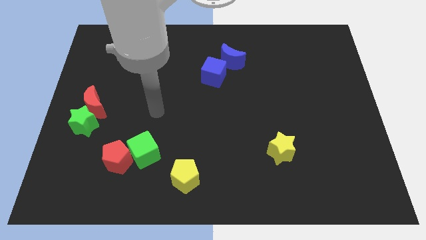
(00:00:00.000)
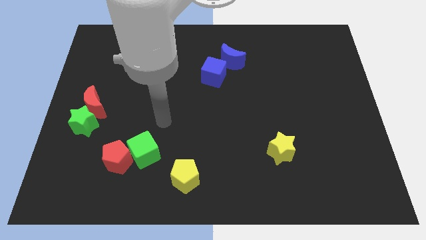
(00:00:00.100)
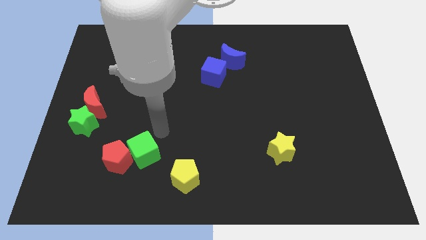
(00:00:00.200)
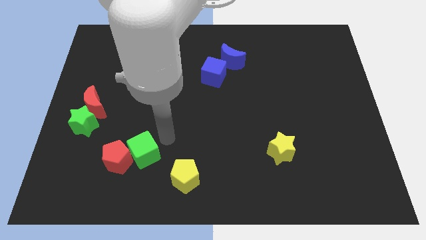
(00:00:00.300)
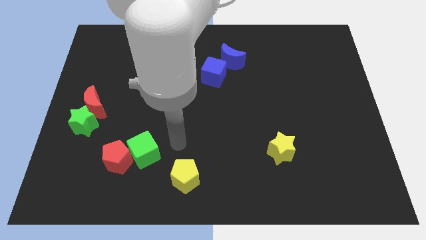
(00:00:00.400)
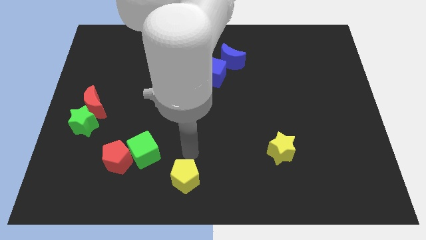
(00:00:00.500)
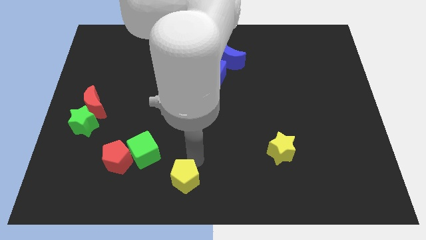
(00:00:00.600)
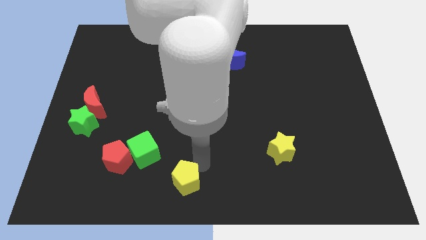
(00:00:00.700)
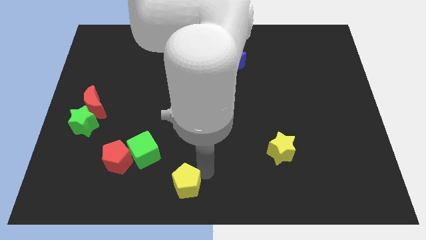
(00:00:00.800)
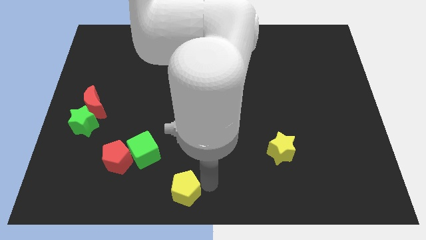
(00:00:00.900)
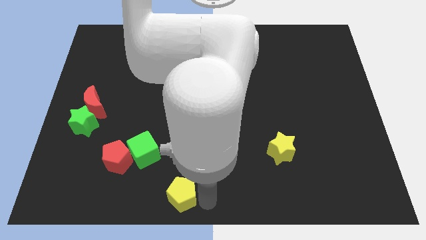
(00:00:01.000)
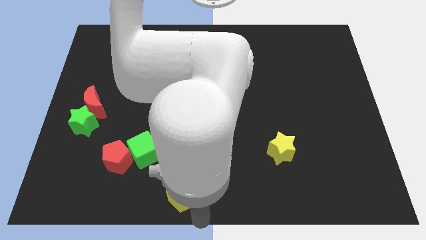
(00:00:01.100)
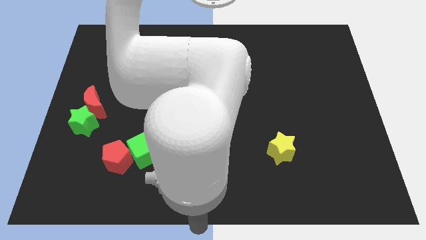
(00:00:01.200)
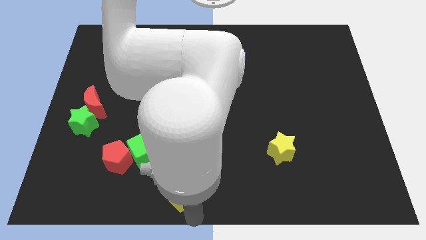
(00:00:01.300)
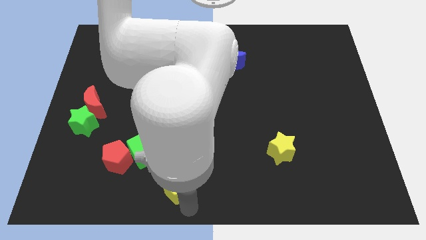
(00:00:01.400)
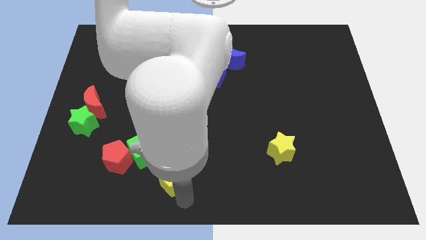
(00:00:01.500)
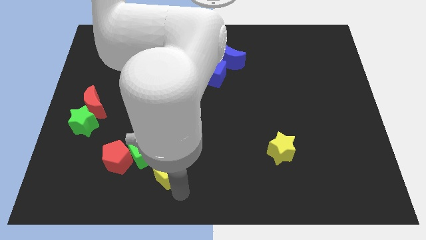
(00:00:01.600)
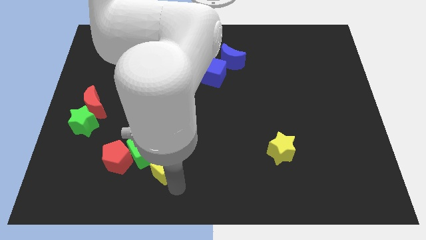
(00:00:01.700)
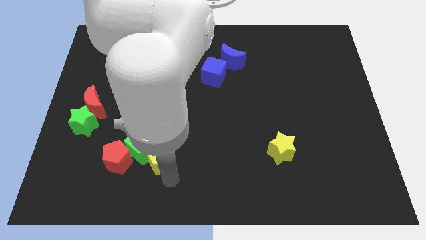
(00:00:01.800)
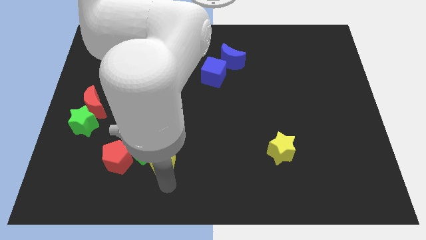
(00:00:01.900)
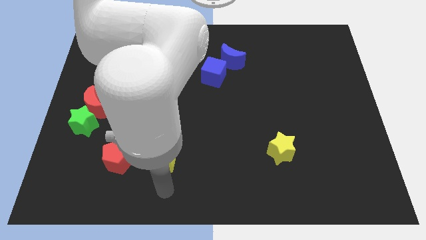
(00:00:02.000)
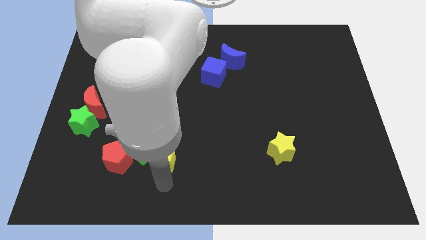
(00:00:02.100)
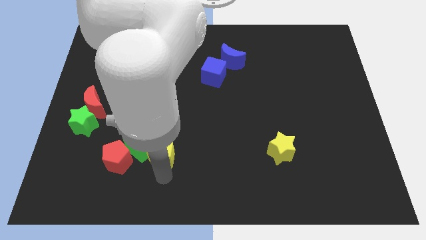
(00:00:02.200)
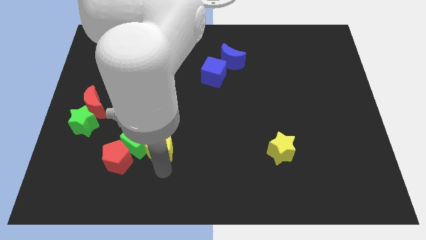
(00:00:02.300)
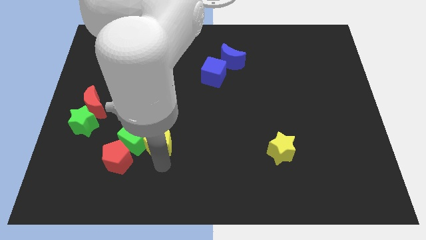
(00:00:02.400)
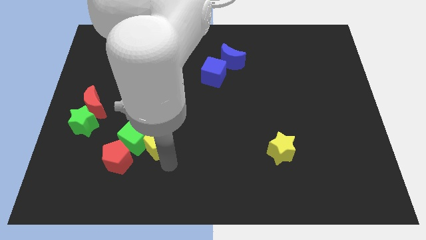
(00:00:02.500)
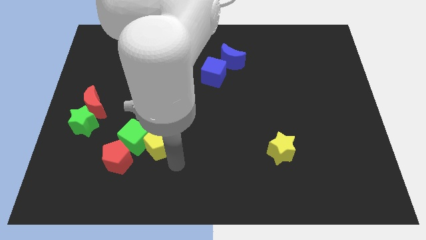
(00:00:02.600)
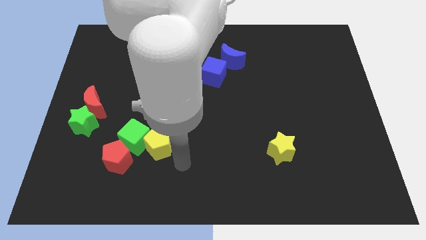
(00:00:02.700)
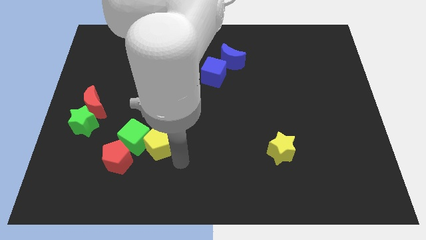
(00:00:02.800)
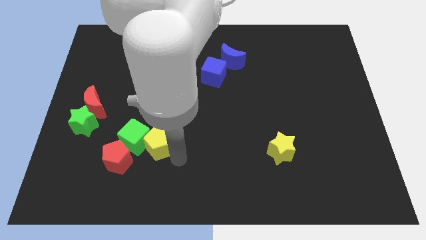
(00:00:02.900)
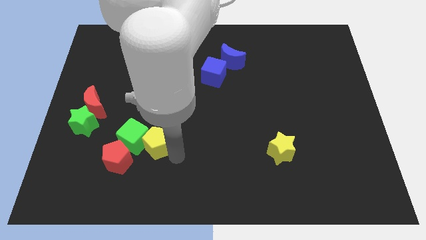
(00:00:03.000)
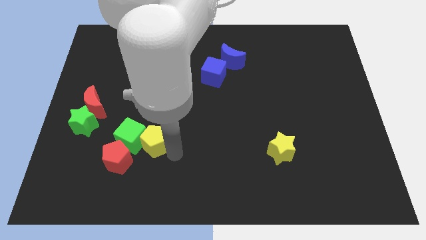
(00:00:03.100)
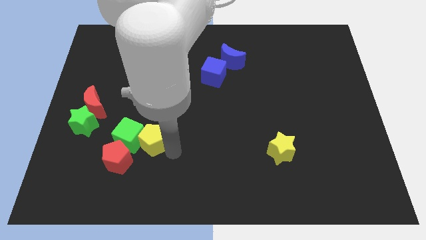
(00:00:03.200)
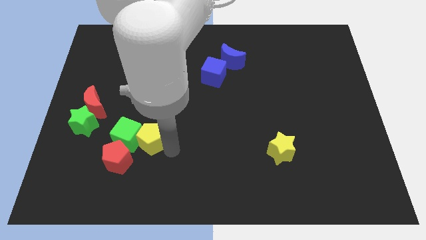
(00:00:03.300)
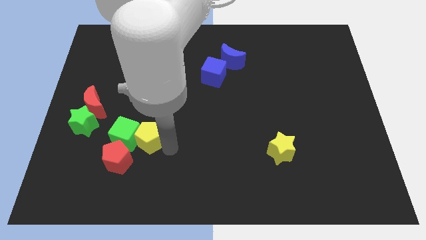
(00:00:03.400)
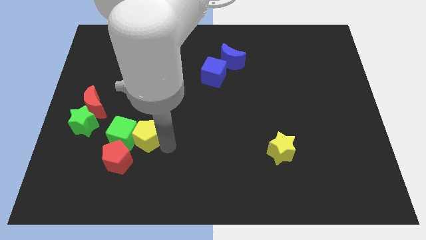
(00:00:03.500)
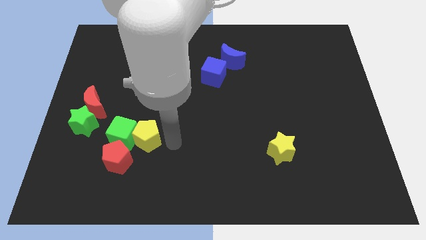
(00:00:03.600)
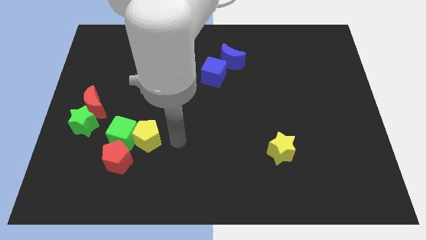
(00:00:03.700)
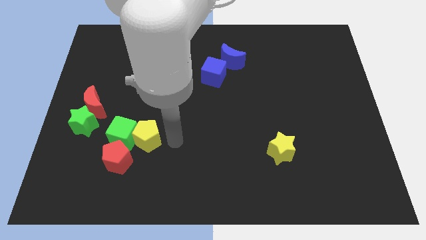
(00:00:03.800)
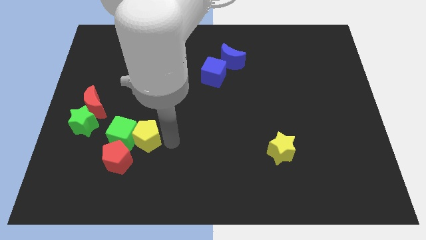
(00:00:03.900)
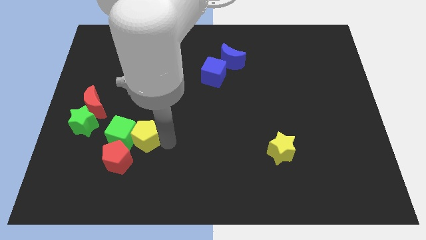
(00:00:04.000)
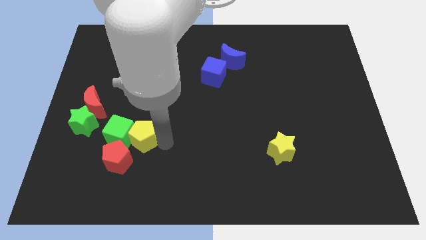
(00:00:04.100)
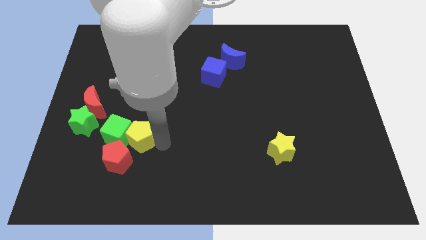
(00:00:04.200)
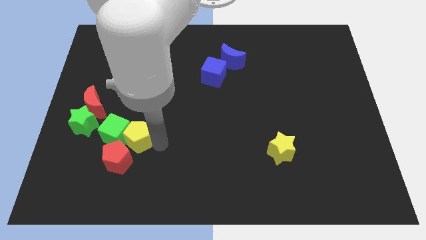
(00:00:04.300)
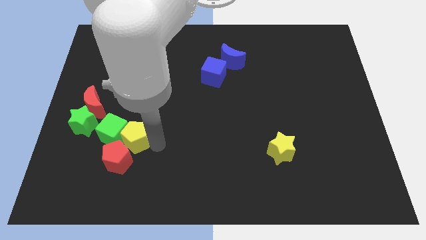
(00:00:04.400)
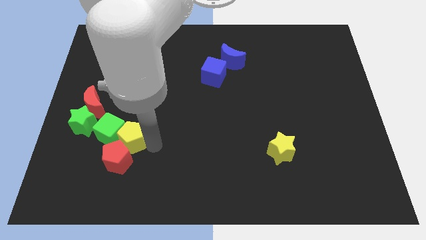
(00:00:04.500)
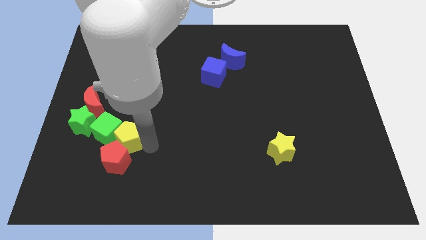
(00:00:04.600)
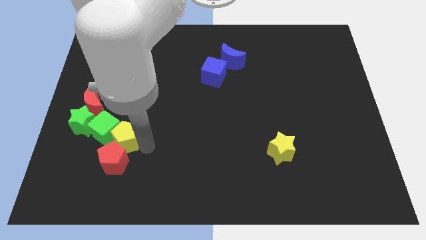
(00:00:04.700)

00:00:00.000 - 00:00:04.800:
put the yellow pentagon diagonally down and to the right of the green star

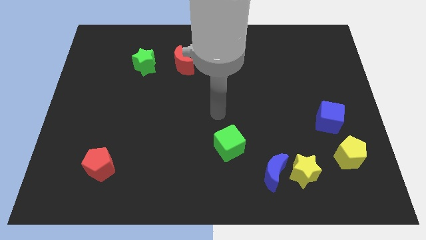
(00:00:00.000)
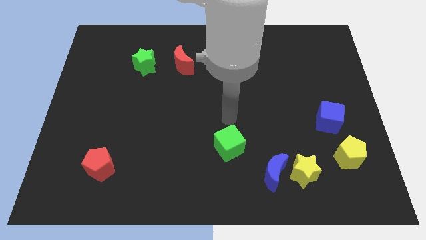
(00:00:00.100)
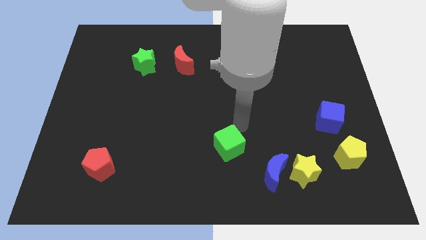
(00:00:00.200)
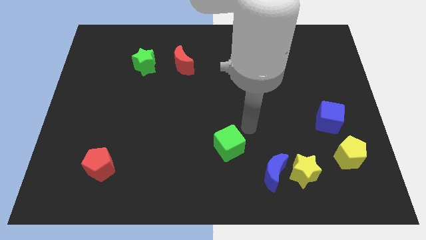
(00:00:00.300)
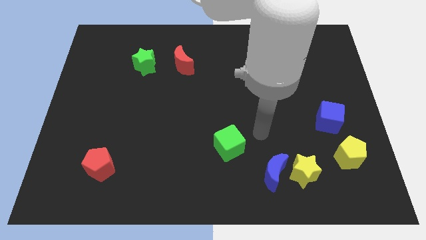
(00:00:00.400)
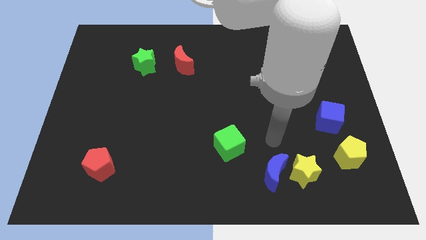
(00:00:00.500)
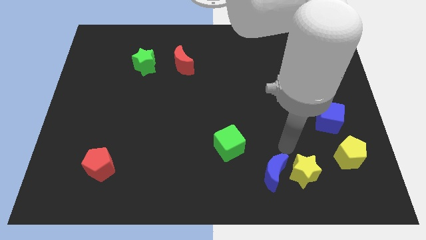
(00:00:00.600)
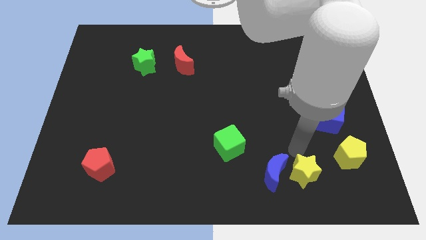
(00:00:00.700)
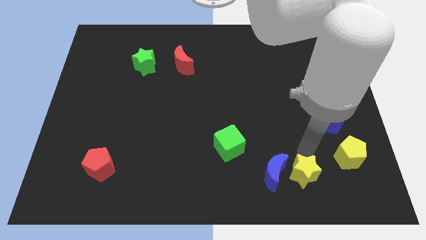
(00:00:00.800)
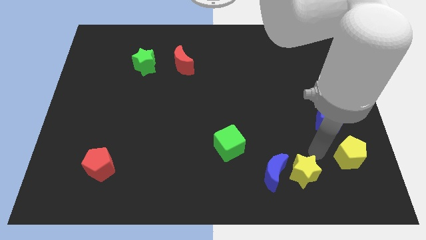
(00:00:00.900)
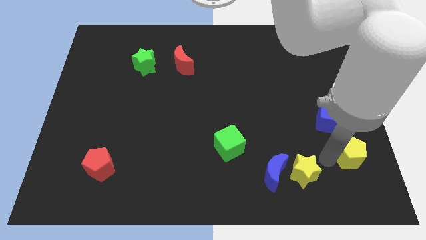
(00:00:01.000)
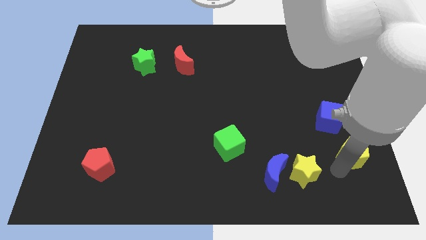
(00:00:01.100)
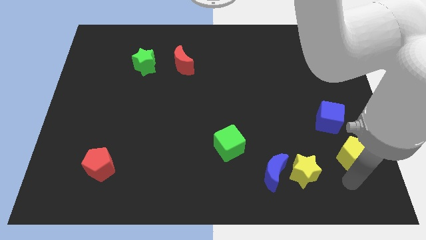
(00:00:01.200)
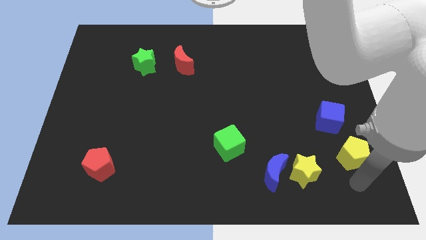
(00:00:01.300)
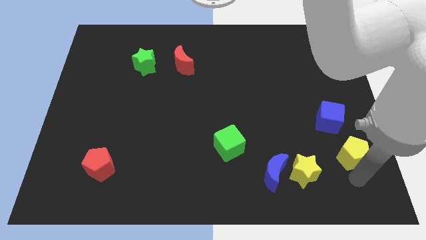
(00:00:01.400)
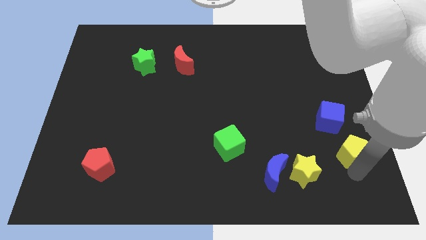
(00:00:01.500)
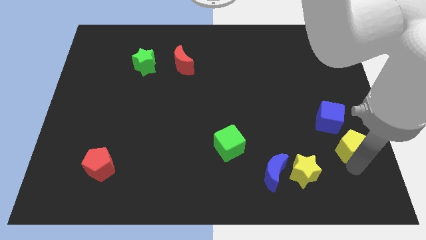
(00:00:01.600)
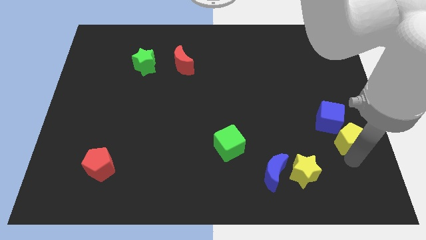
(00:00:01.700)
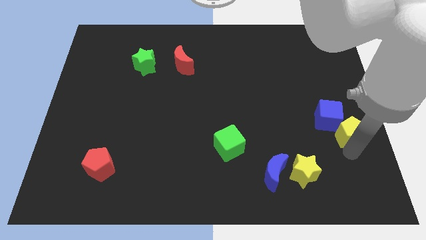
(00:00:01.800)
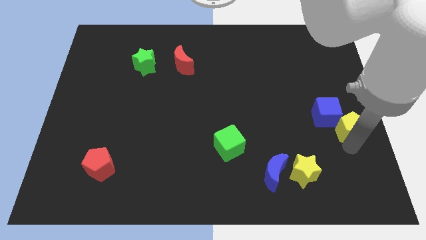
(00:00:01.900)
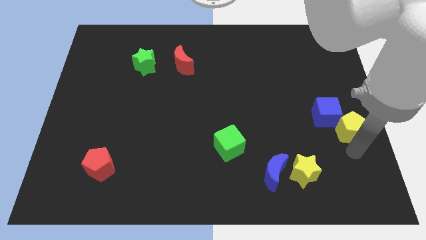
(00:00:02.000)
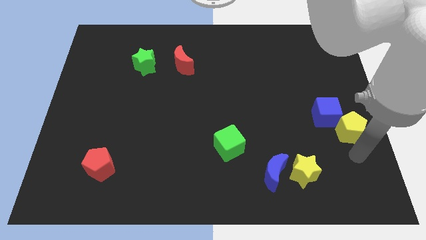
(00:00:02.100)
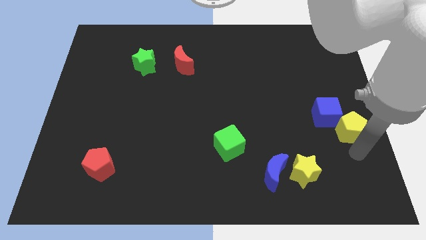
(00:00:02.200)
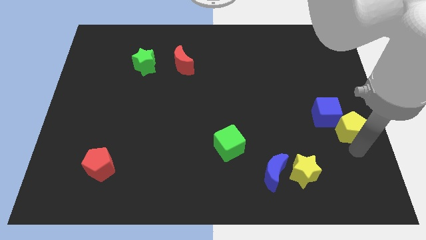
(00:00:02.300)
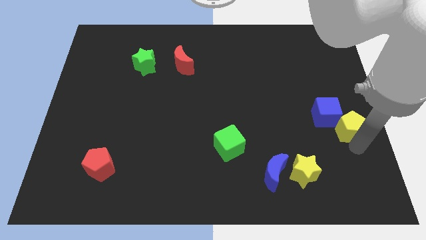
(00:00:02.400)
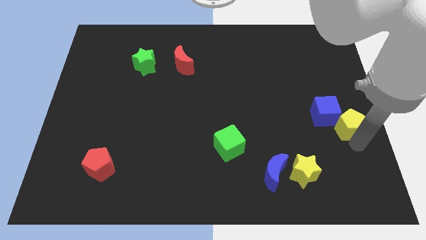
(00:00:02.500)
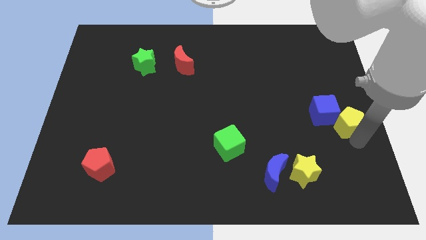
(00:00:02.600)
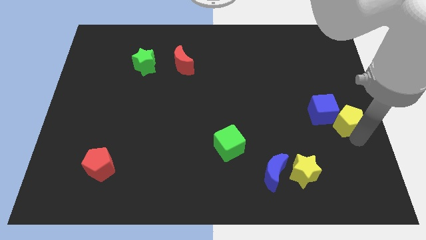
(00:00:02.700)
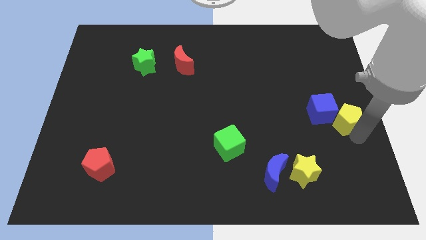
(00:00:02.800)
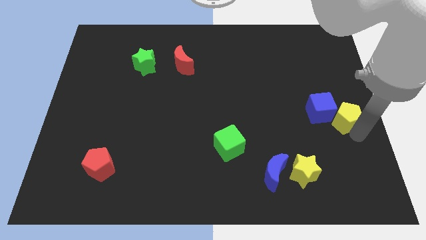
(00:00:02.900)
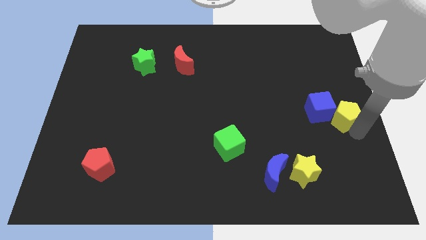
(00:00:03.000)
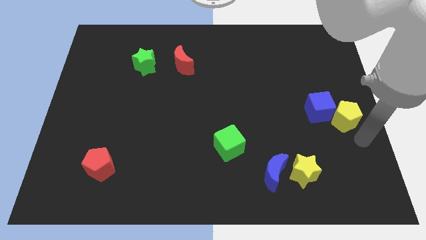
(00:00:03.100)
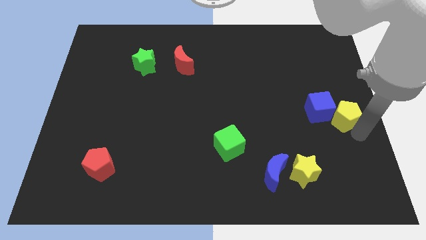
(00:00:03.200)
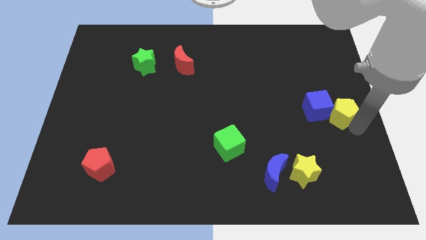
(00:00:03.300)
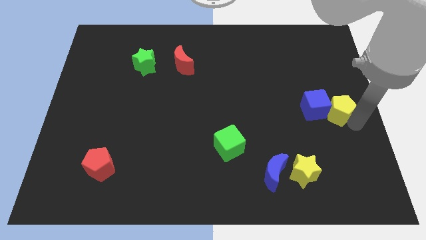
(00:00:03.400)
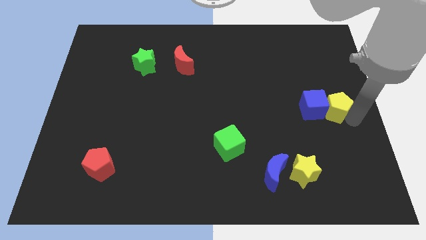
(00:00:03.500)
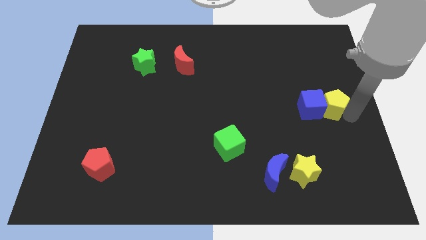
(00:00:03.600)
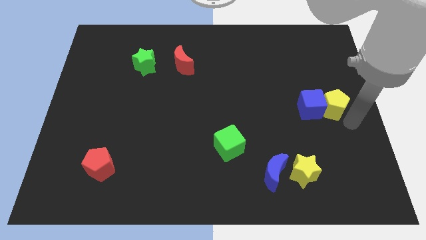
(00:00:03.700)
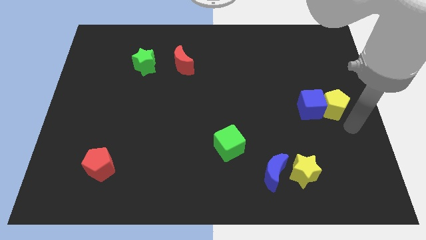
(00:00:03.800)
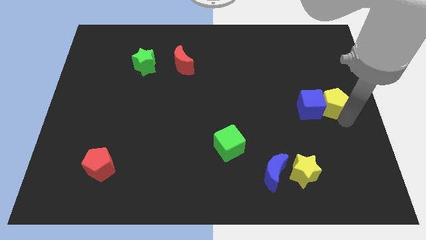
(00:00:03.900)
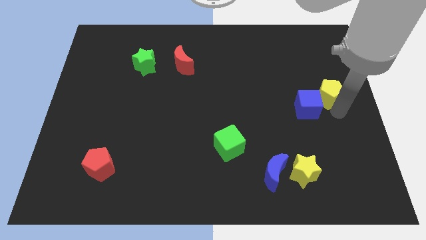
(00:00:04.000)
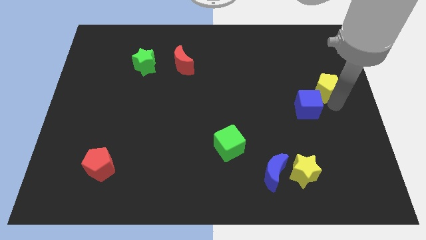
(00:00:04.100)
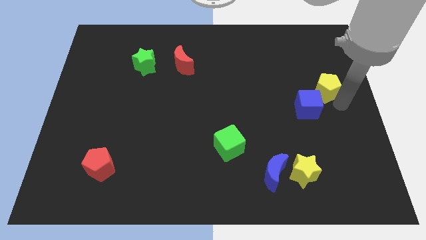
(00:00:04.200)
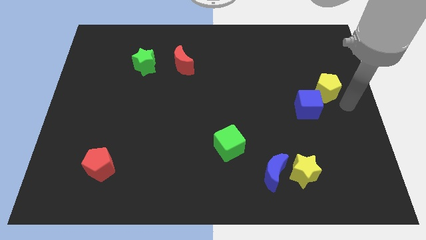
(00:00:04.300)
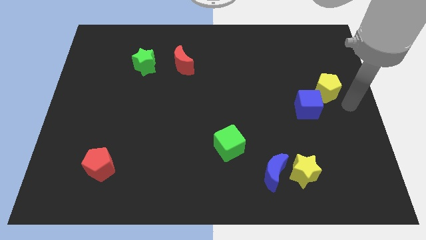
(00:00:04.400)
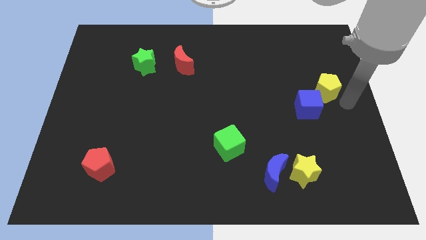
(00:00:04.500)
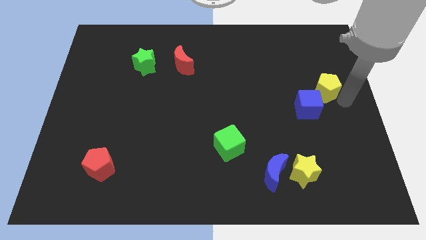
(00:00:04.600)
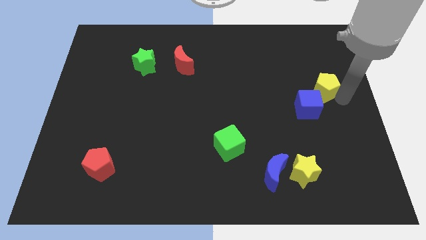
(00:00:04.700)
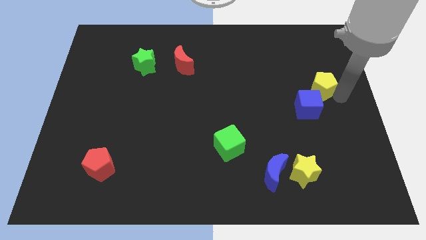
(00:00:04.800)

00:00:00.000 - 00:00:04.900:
slide the yellow pentagon to the top side of the blue cube
